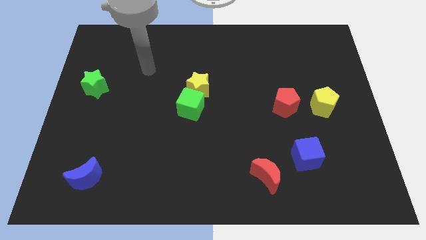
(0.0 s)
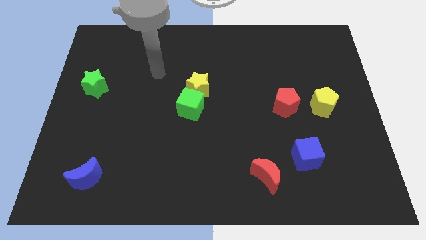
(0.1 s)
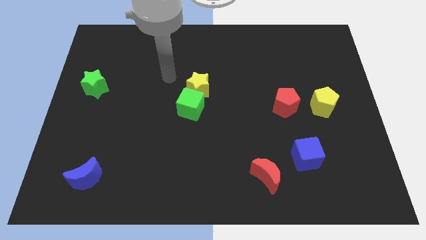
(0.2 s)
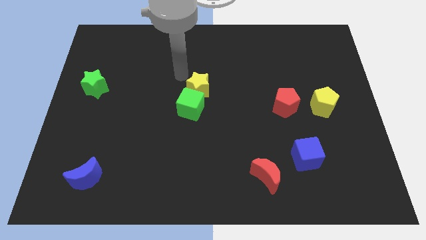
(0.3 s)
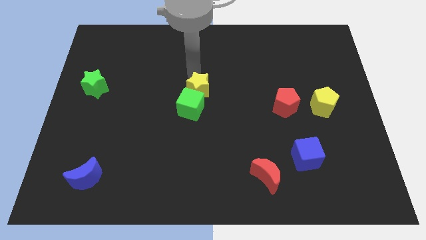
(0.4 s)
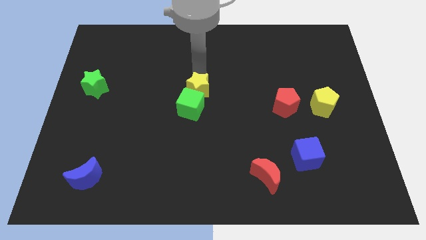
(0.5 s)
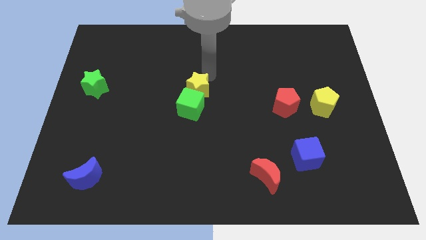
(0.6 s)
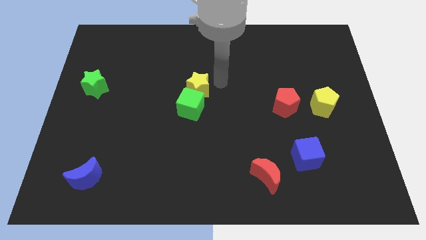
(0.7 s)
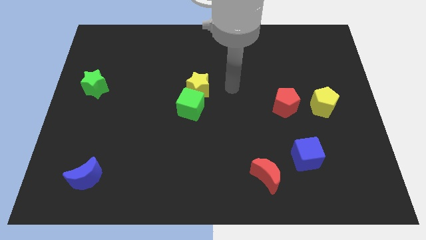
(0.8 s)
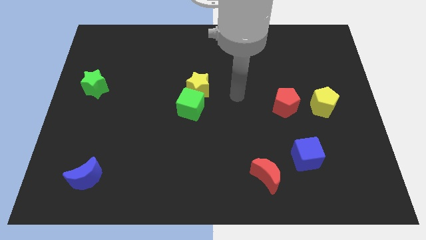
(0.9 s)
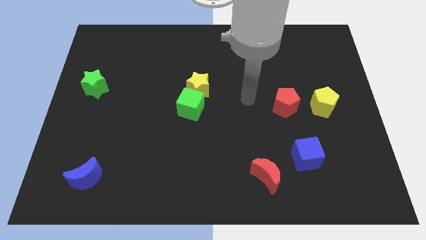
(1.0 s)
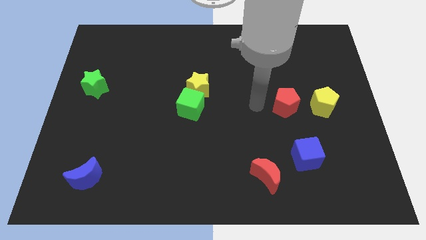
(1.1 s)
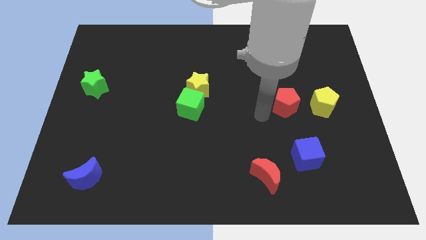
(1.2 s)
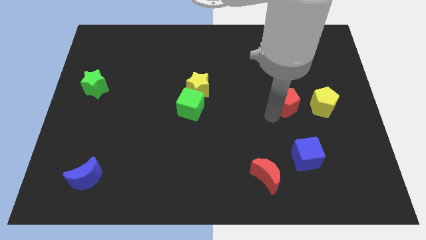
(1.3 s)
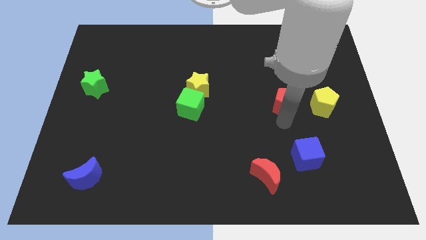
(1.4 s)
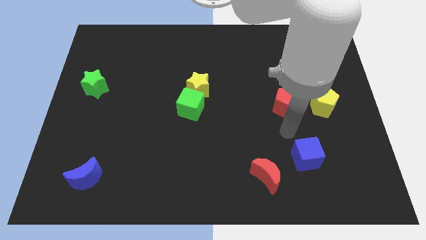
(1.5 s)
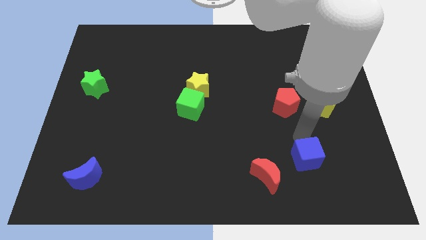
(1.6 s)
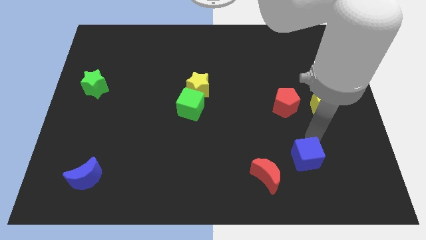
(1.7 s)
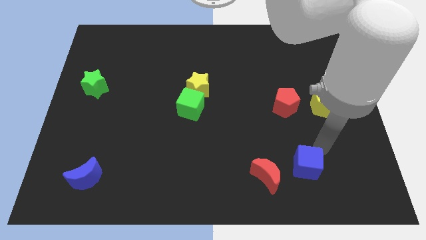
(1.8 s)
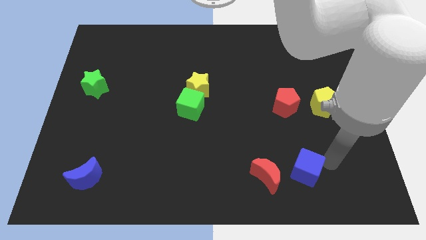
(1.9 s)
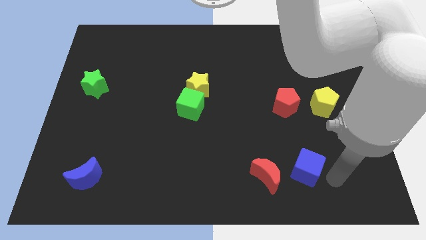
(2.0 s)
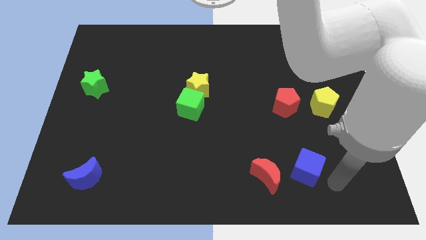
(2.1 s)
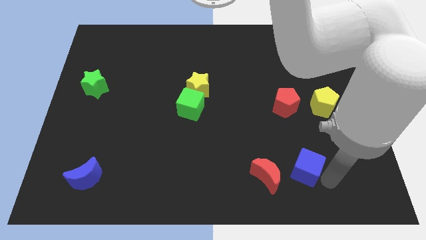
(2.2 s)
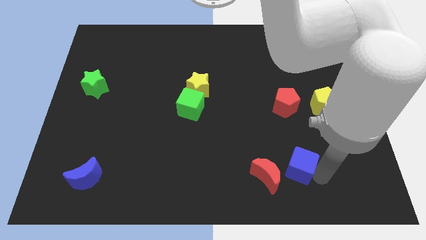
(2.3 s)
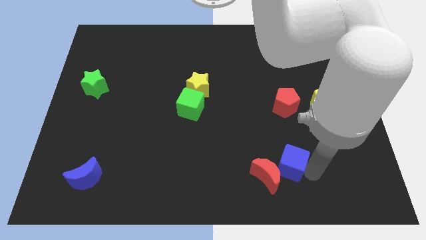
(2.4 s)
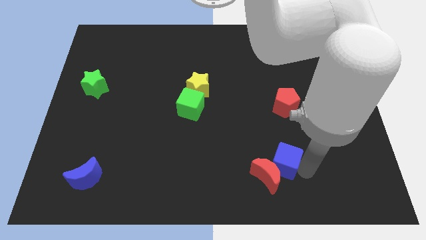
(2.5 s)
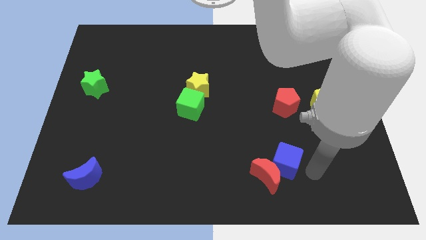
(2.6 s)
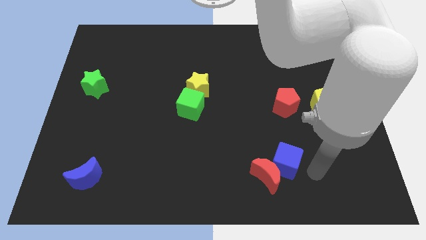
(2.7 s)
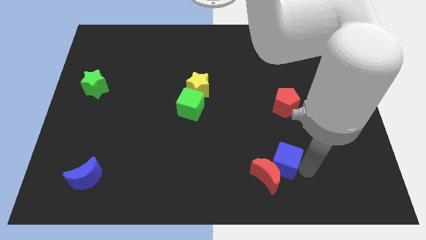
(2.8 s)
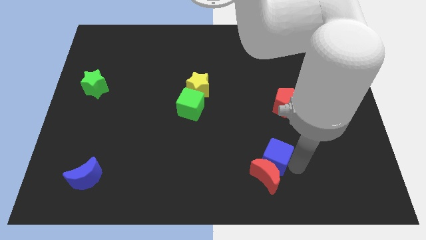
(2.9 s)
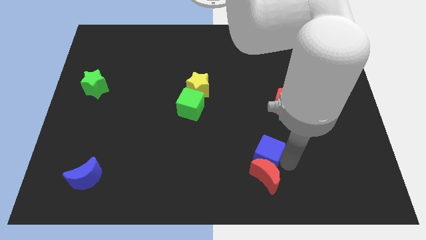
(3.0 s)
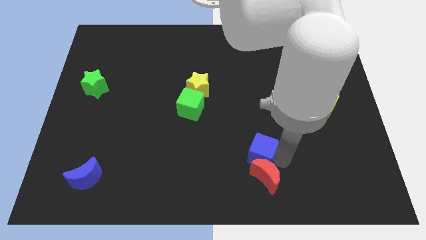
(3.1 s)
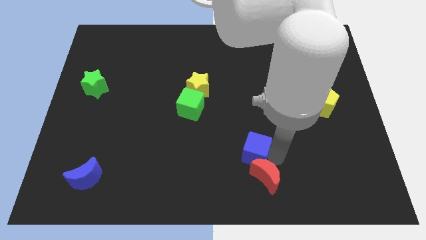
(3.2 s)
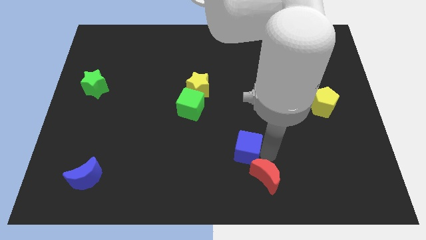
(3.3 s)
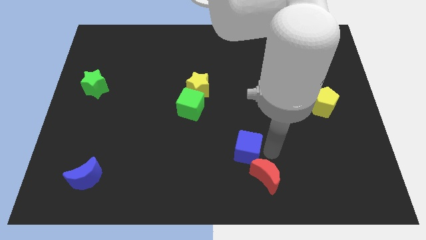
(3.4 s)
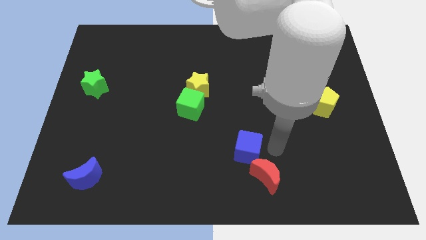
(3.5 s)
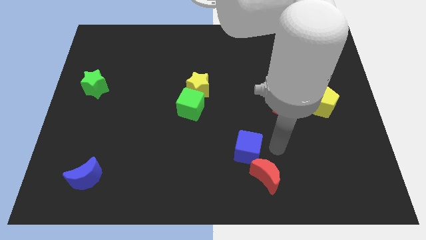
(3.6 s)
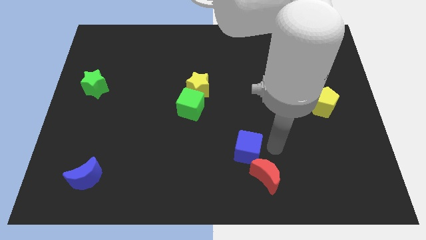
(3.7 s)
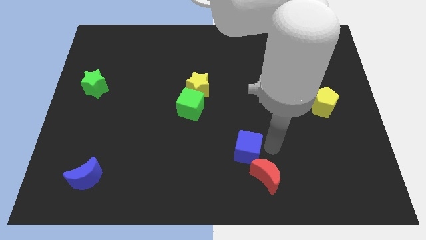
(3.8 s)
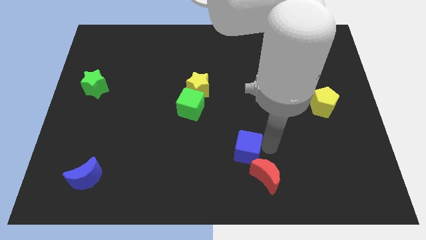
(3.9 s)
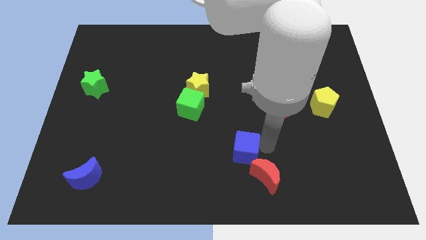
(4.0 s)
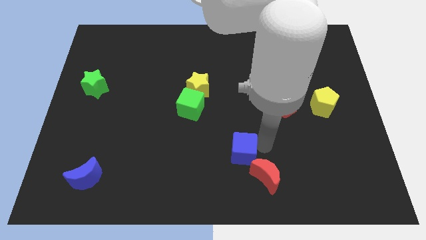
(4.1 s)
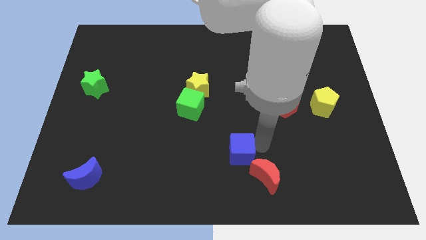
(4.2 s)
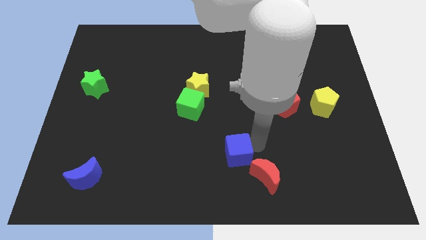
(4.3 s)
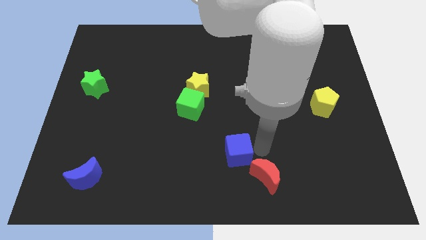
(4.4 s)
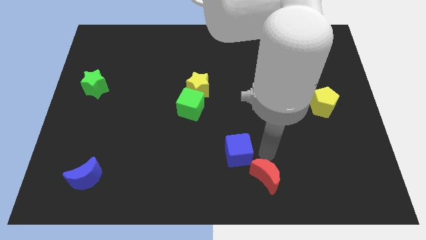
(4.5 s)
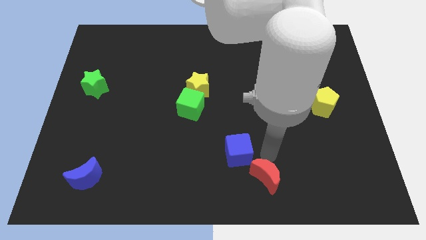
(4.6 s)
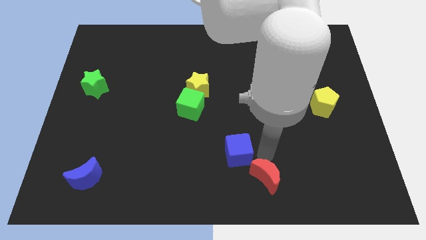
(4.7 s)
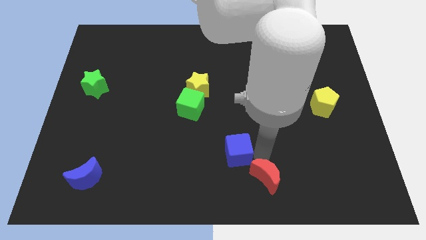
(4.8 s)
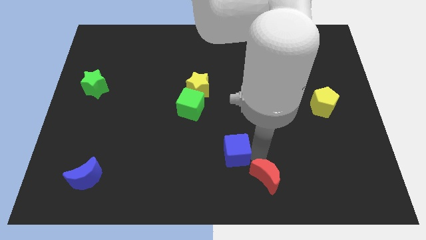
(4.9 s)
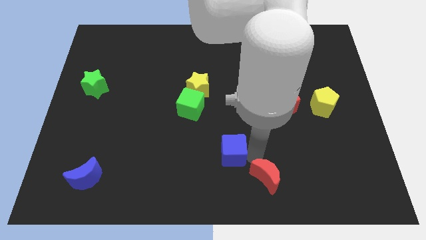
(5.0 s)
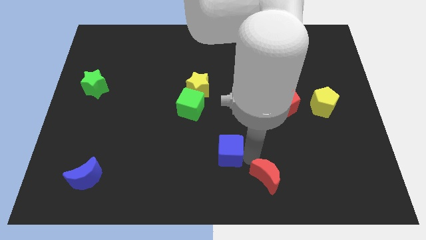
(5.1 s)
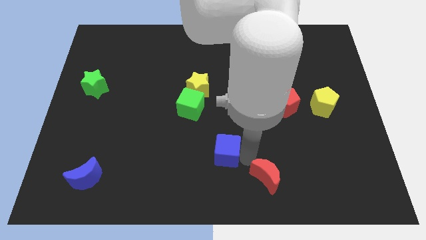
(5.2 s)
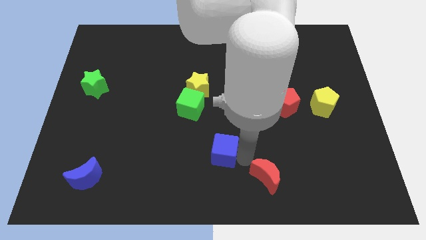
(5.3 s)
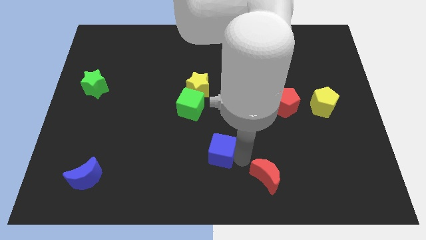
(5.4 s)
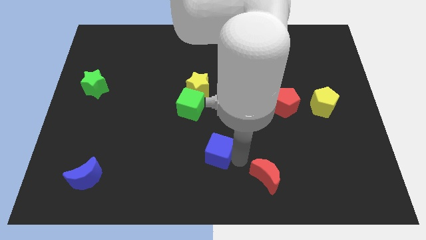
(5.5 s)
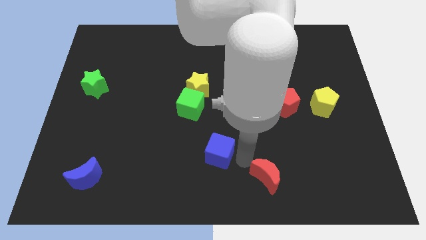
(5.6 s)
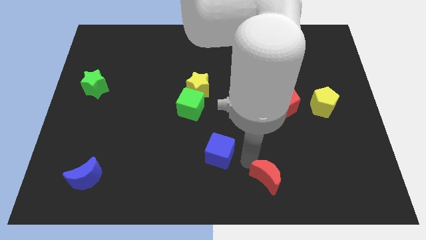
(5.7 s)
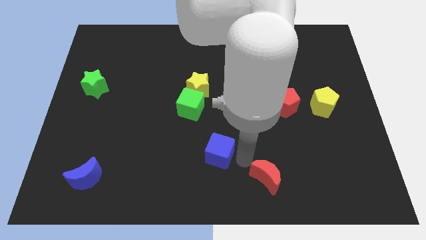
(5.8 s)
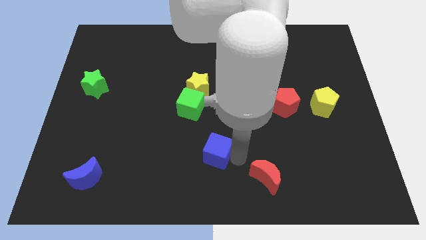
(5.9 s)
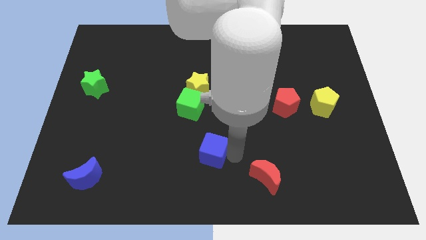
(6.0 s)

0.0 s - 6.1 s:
slide the blue cube left

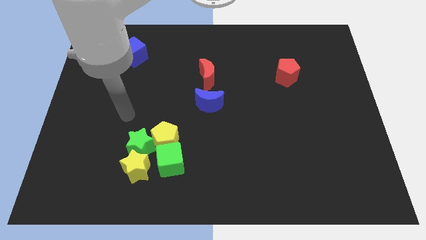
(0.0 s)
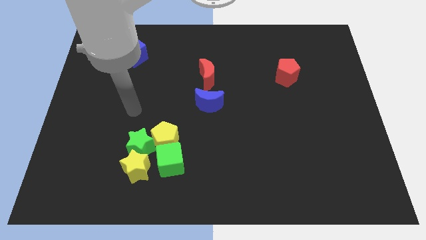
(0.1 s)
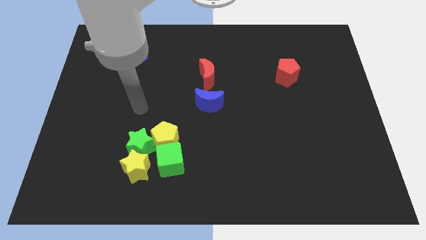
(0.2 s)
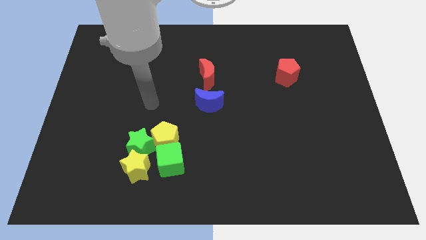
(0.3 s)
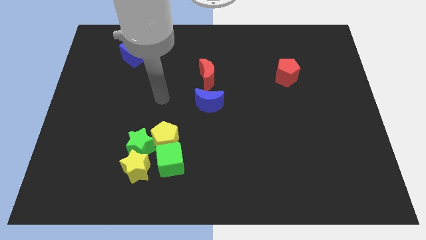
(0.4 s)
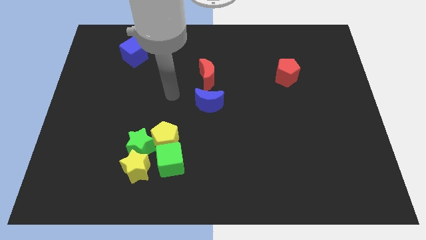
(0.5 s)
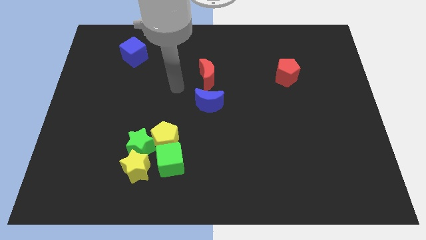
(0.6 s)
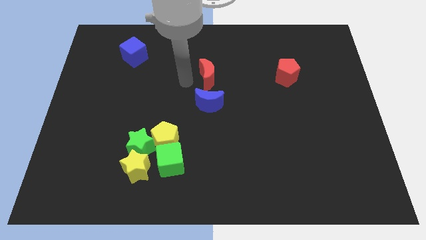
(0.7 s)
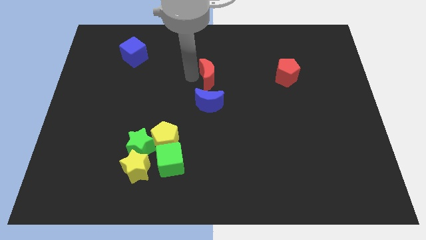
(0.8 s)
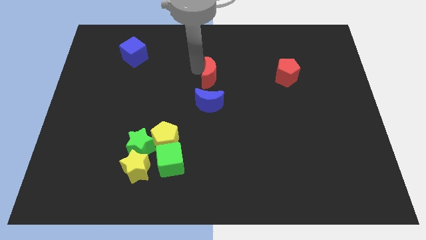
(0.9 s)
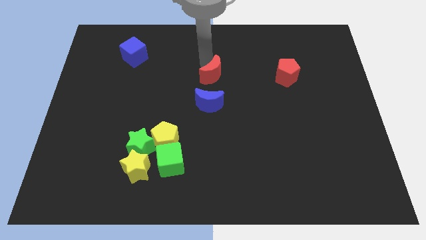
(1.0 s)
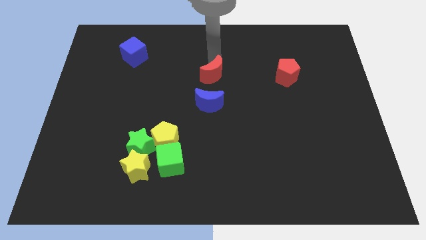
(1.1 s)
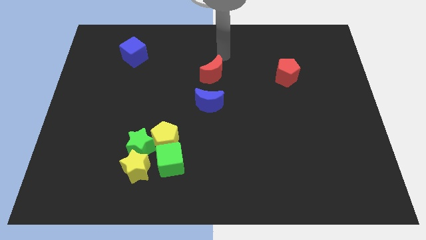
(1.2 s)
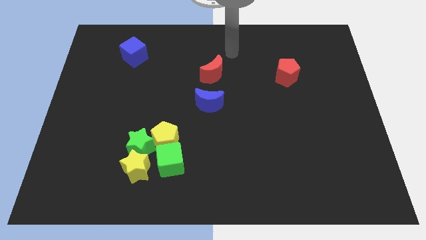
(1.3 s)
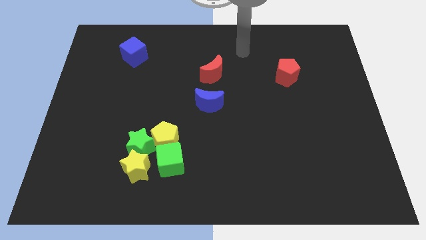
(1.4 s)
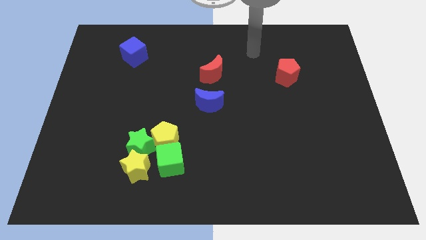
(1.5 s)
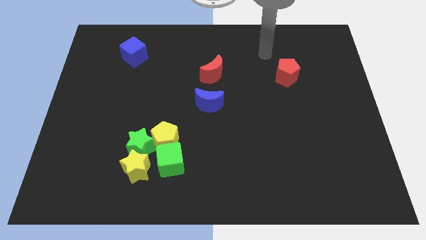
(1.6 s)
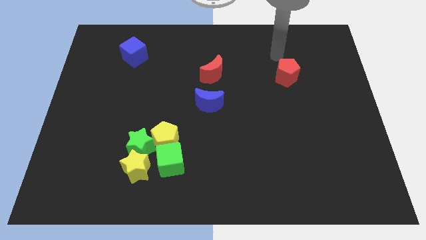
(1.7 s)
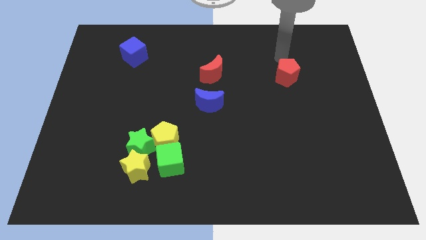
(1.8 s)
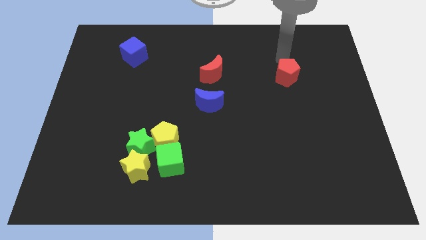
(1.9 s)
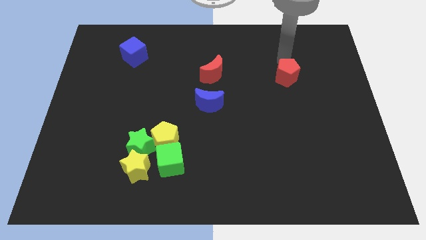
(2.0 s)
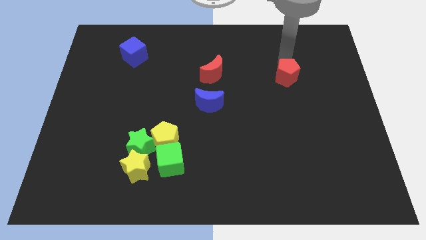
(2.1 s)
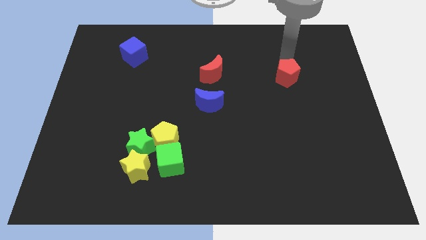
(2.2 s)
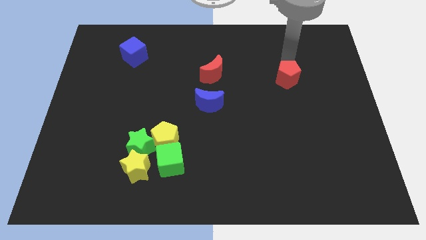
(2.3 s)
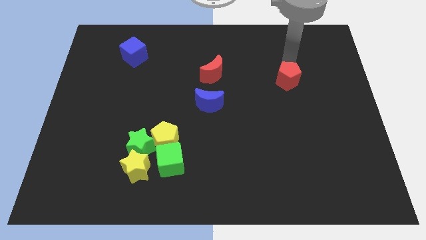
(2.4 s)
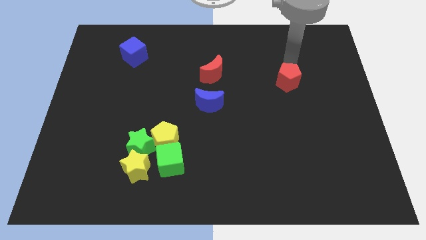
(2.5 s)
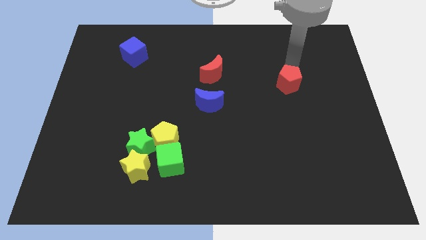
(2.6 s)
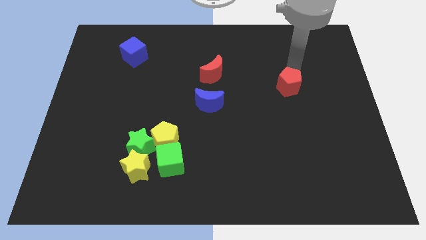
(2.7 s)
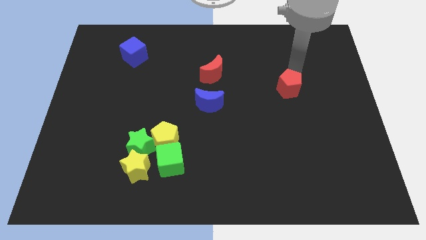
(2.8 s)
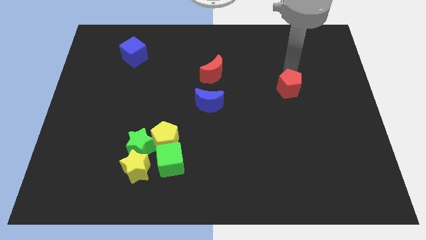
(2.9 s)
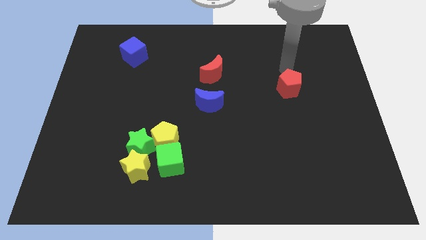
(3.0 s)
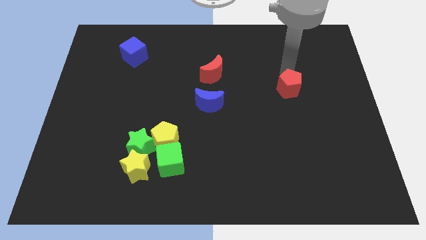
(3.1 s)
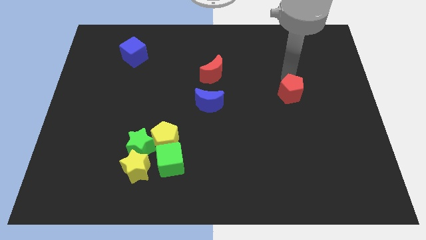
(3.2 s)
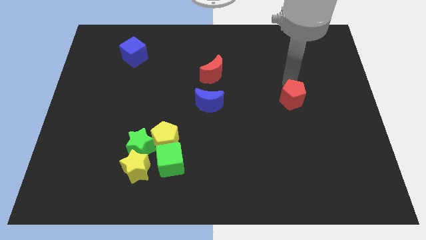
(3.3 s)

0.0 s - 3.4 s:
slightly push the red pentagon downwards
